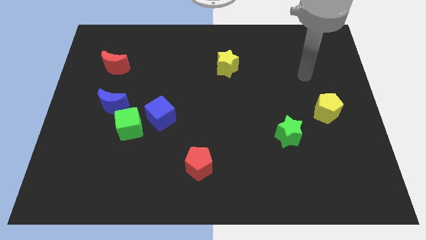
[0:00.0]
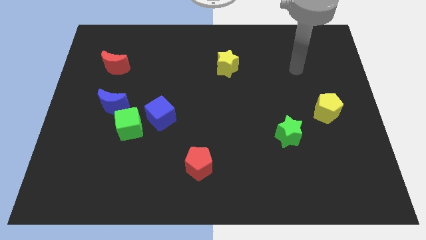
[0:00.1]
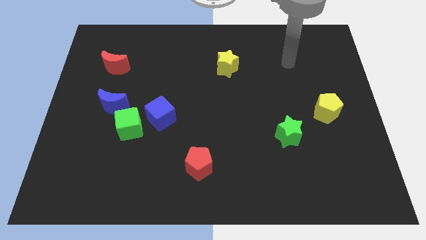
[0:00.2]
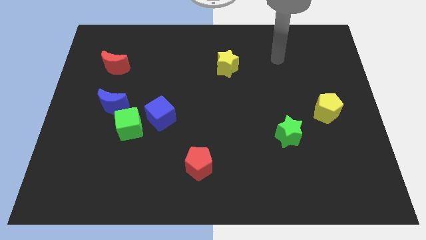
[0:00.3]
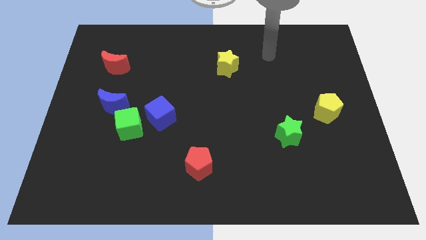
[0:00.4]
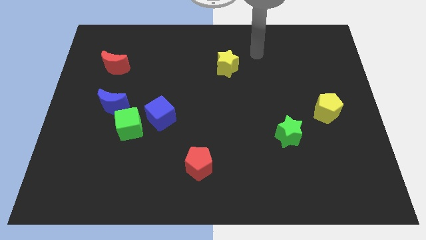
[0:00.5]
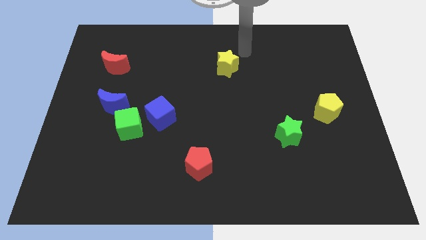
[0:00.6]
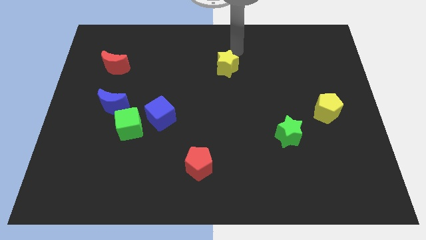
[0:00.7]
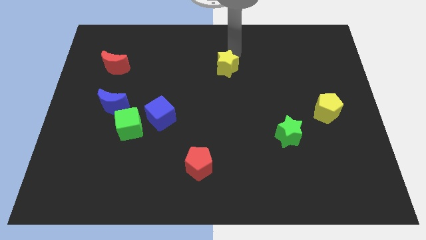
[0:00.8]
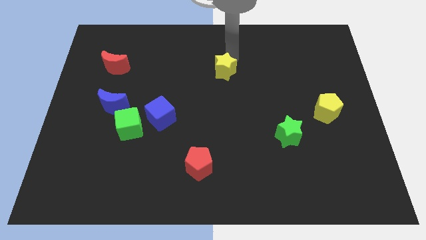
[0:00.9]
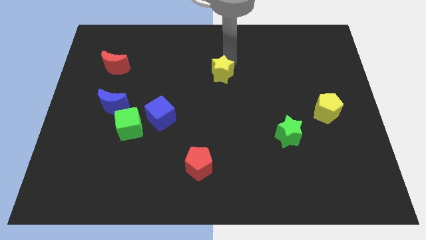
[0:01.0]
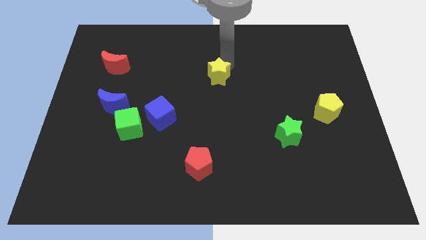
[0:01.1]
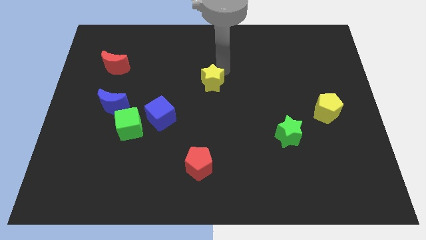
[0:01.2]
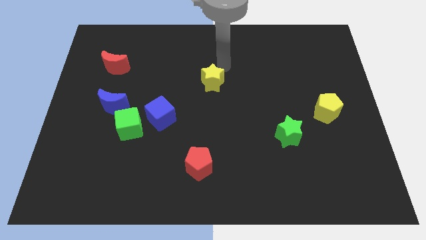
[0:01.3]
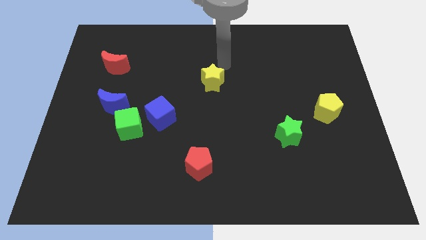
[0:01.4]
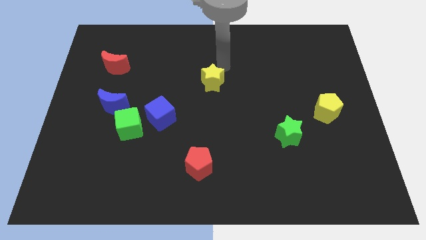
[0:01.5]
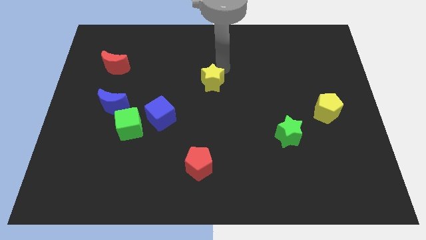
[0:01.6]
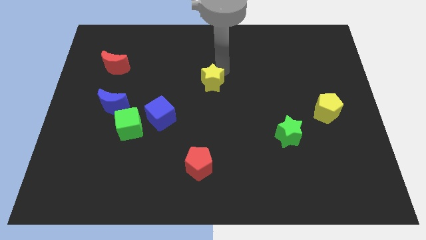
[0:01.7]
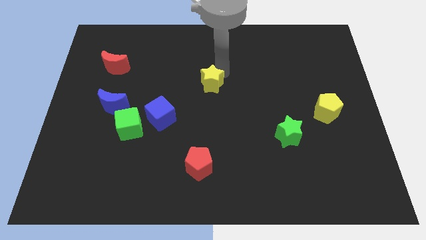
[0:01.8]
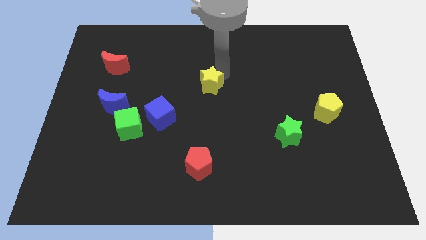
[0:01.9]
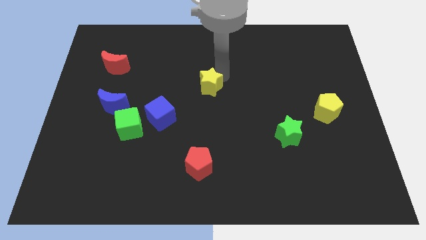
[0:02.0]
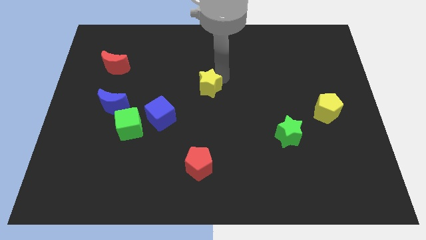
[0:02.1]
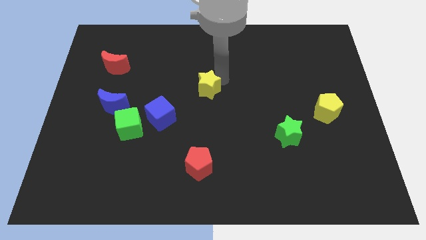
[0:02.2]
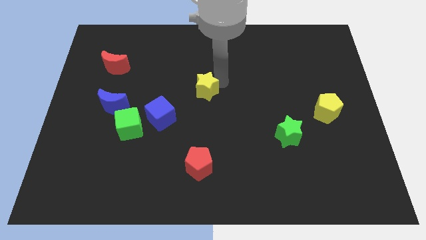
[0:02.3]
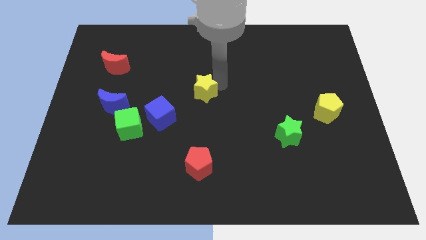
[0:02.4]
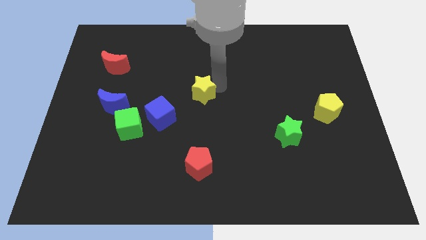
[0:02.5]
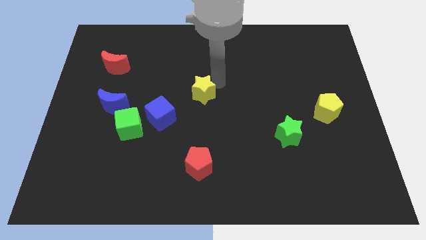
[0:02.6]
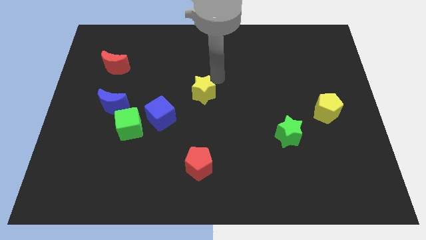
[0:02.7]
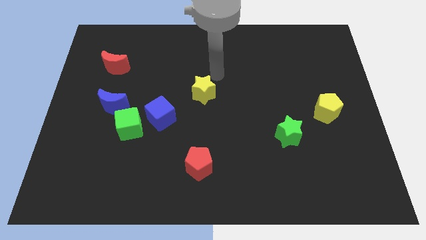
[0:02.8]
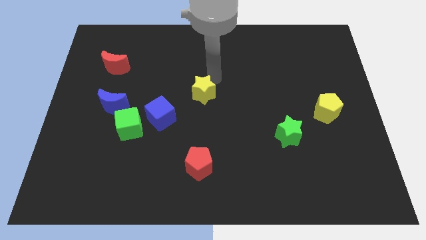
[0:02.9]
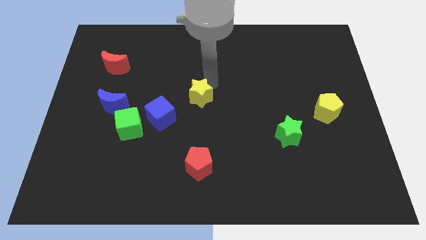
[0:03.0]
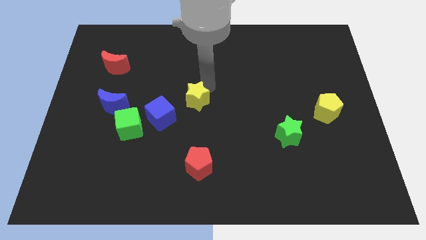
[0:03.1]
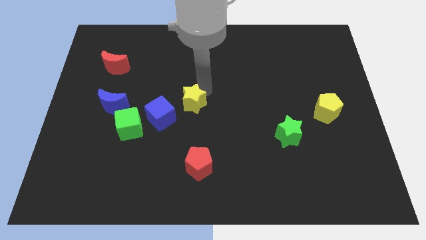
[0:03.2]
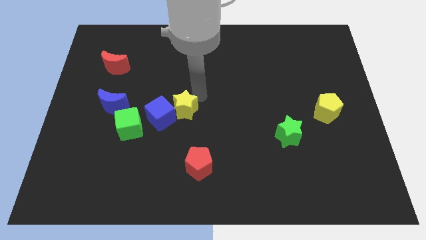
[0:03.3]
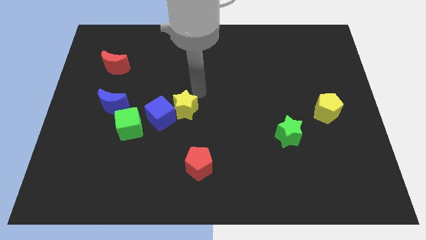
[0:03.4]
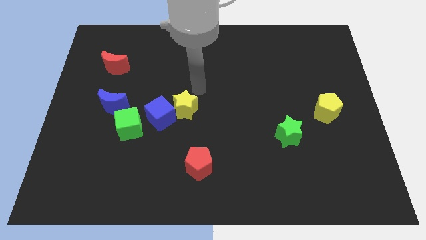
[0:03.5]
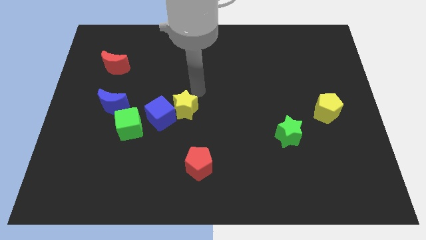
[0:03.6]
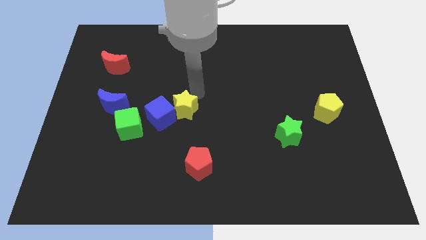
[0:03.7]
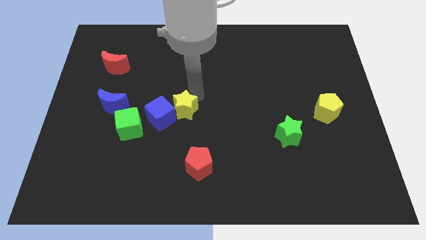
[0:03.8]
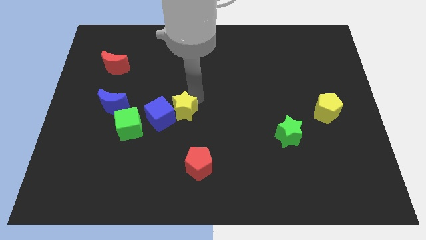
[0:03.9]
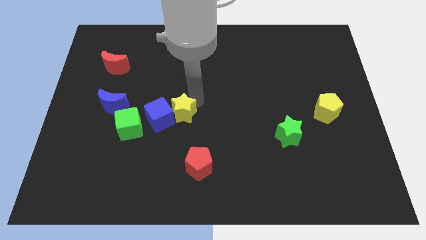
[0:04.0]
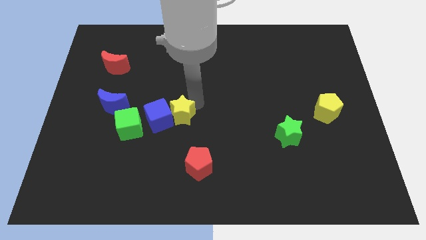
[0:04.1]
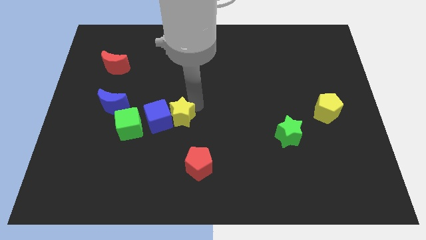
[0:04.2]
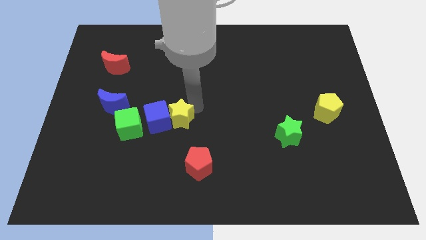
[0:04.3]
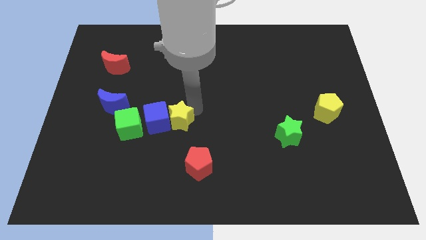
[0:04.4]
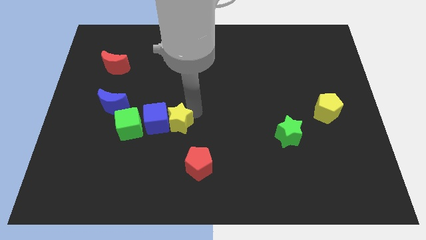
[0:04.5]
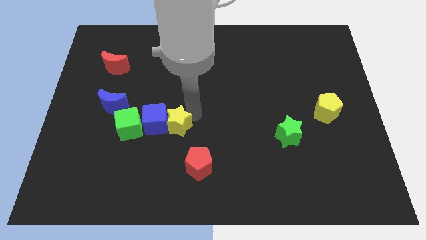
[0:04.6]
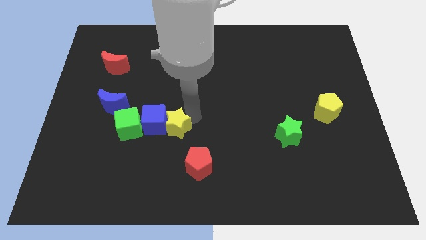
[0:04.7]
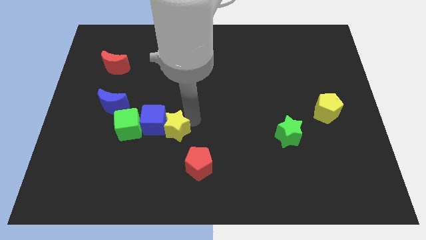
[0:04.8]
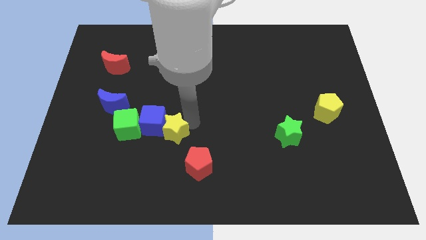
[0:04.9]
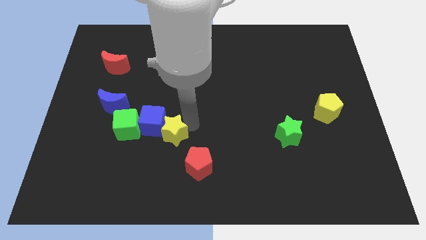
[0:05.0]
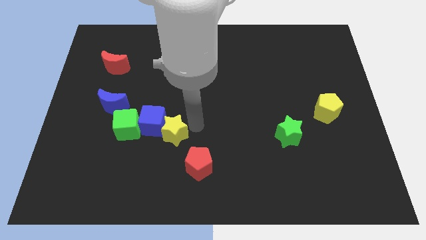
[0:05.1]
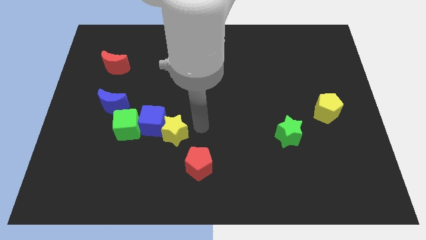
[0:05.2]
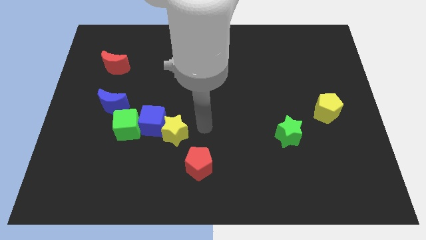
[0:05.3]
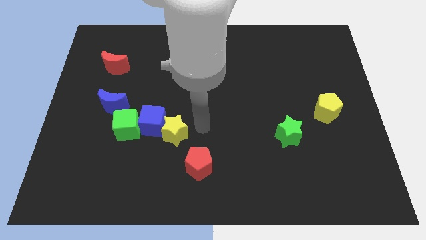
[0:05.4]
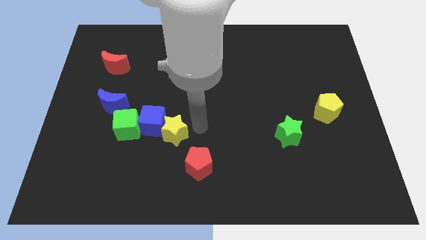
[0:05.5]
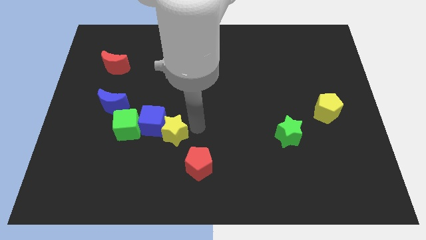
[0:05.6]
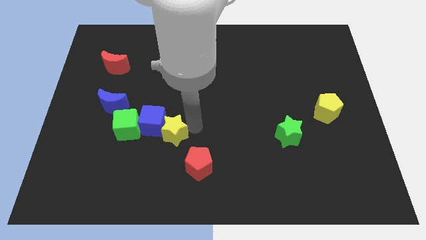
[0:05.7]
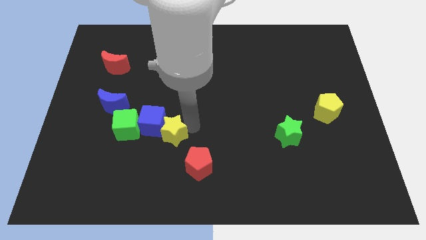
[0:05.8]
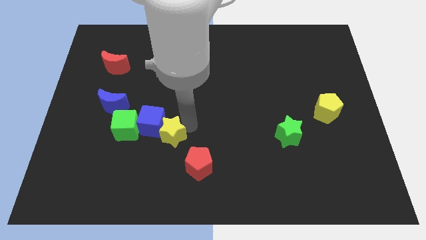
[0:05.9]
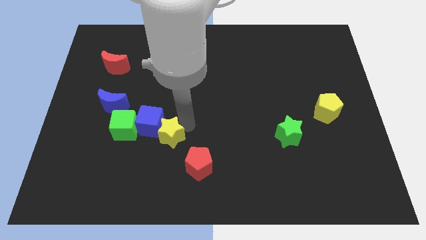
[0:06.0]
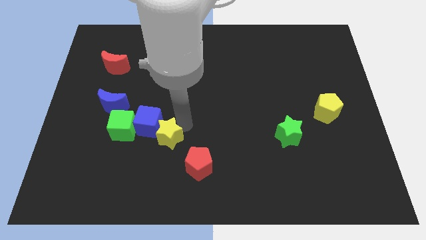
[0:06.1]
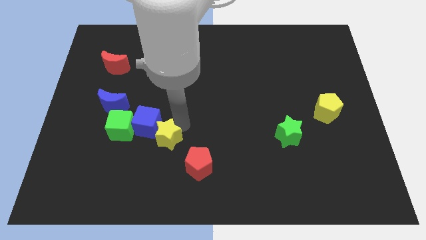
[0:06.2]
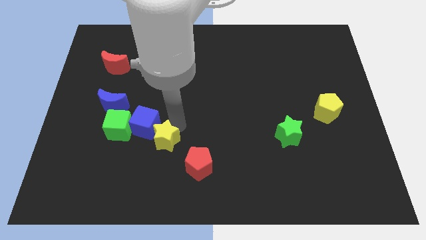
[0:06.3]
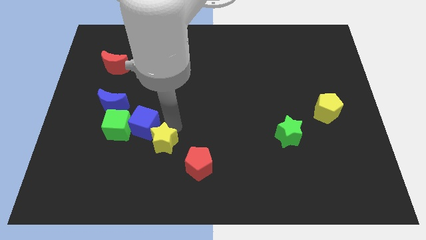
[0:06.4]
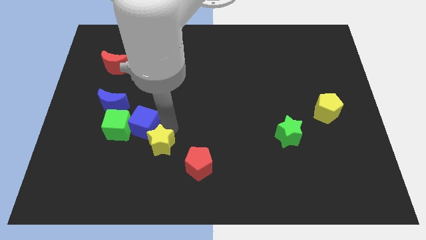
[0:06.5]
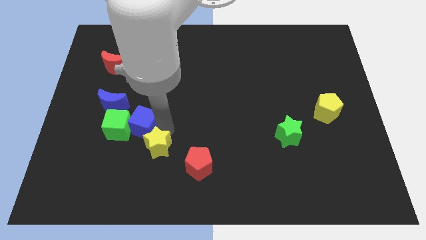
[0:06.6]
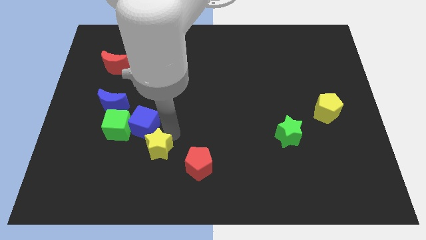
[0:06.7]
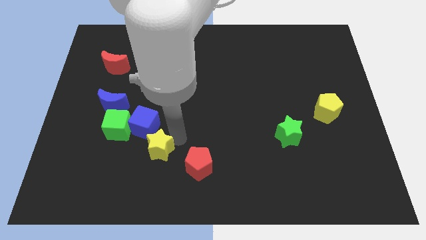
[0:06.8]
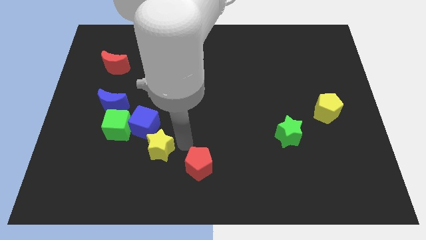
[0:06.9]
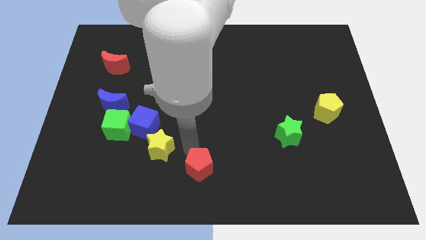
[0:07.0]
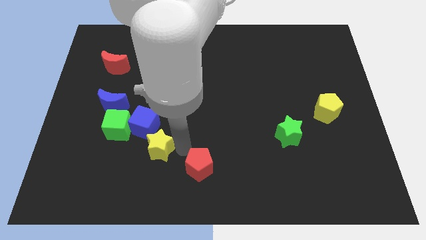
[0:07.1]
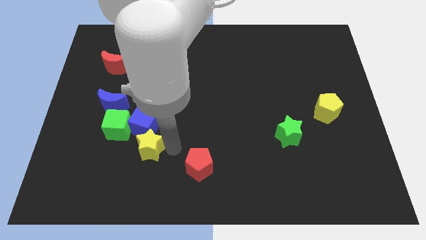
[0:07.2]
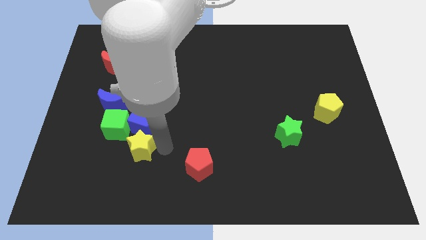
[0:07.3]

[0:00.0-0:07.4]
push the yellow star to the bottom left side of the blue cube

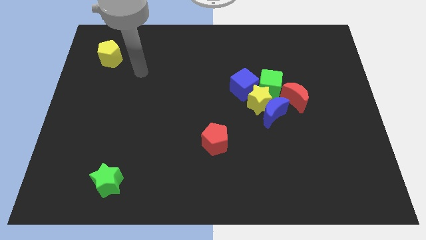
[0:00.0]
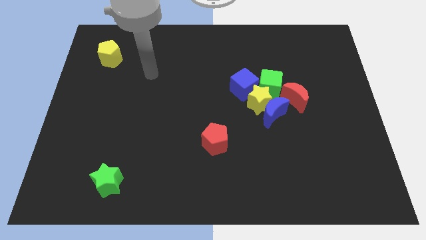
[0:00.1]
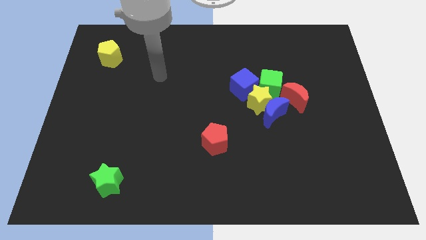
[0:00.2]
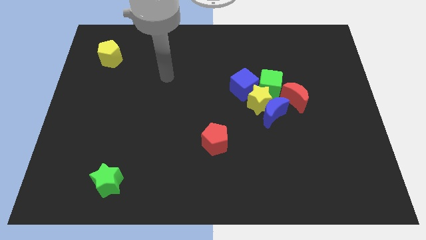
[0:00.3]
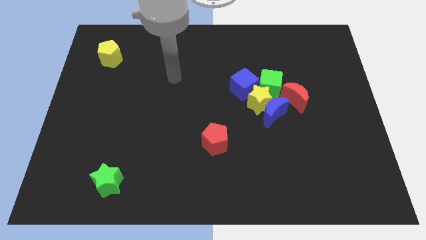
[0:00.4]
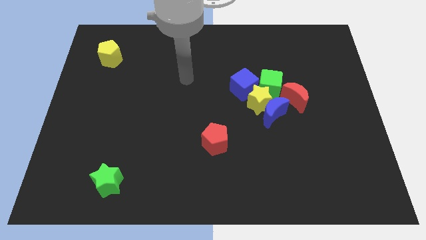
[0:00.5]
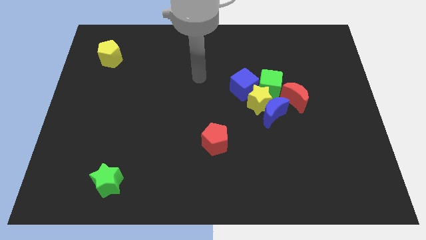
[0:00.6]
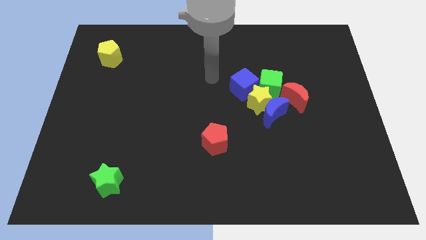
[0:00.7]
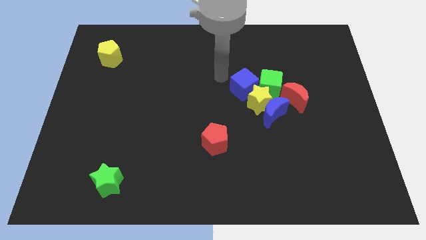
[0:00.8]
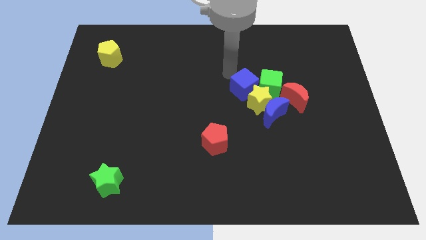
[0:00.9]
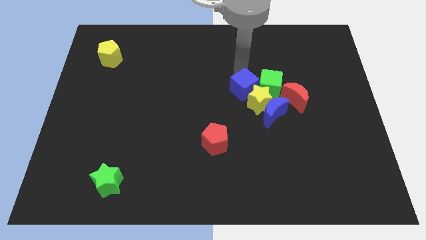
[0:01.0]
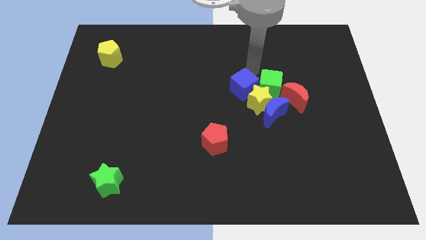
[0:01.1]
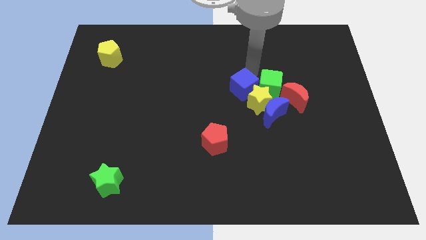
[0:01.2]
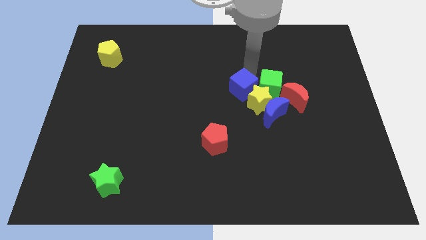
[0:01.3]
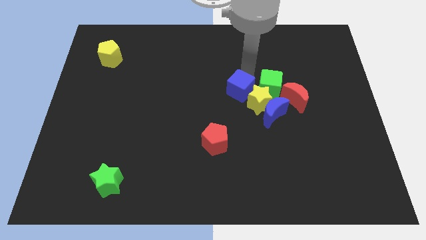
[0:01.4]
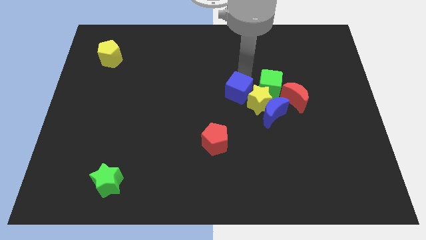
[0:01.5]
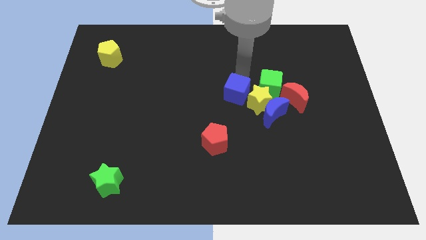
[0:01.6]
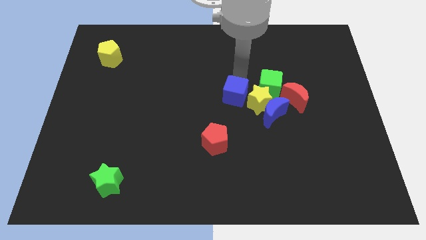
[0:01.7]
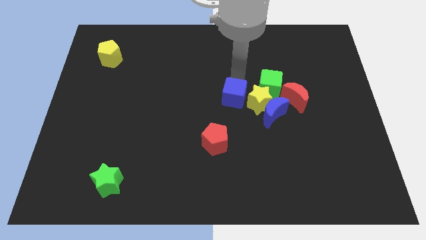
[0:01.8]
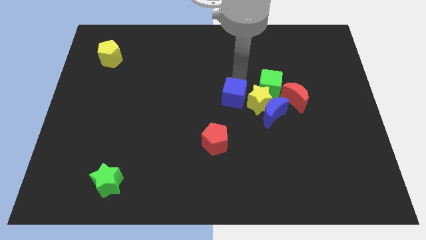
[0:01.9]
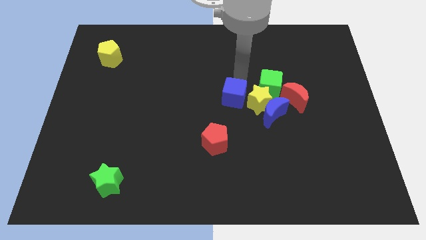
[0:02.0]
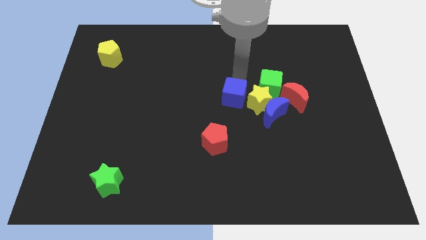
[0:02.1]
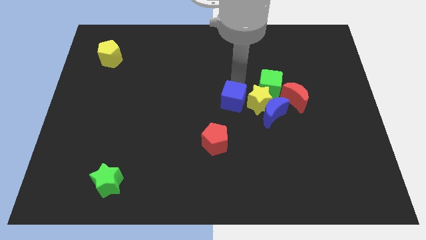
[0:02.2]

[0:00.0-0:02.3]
slide the blue cube to the left of the blue moon
